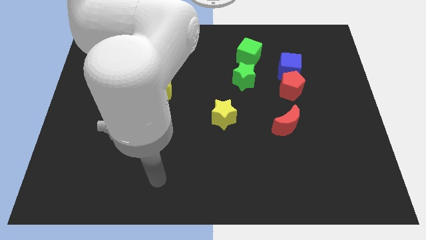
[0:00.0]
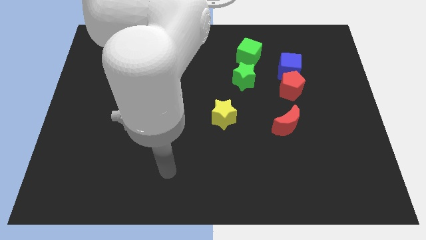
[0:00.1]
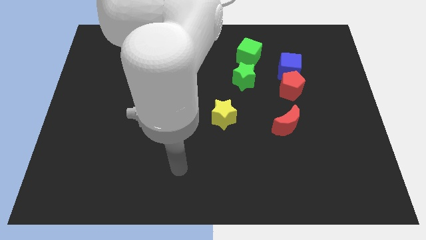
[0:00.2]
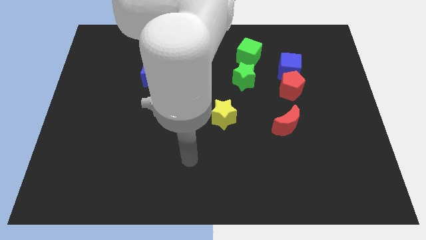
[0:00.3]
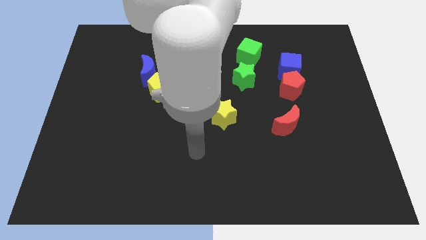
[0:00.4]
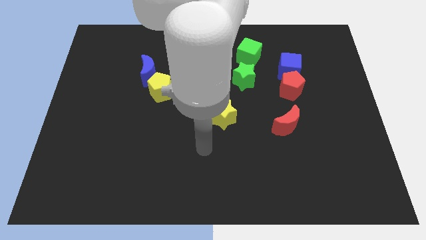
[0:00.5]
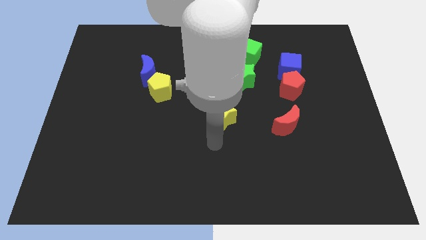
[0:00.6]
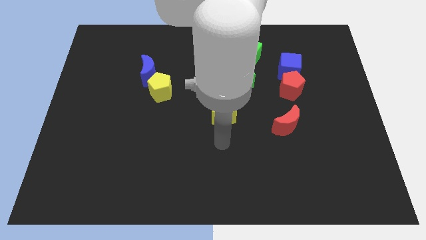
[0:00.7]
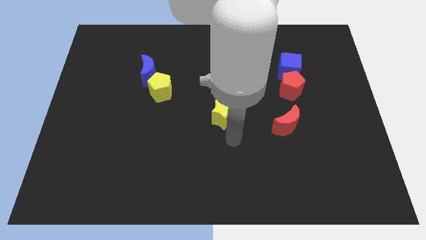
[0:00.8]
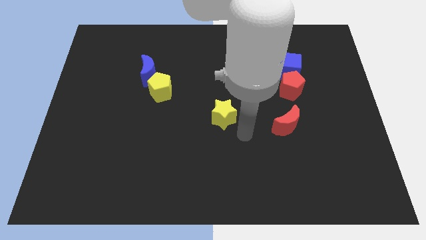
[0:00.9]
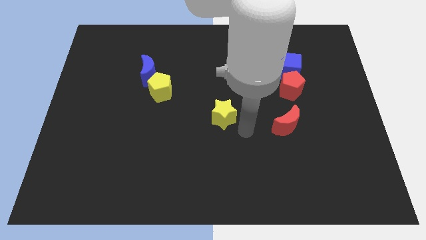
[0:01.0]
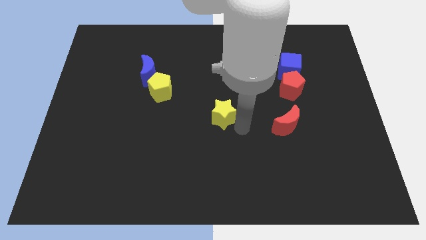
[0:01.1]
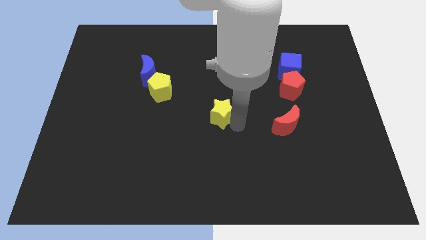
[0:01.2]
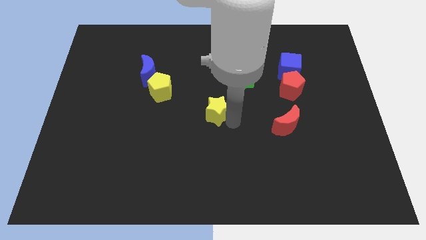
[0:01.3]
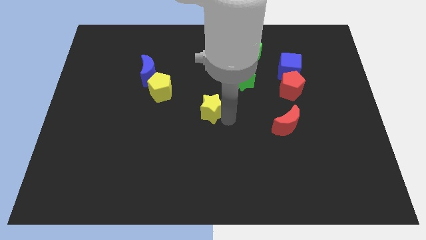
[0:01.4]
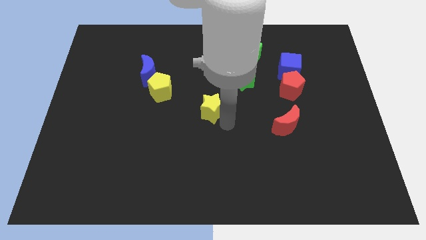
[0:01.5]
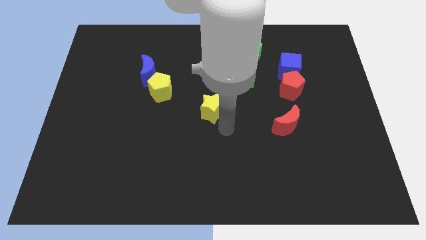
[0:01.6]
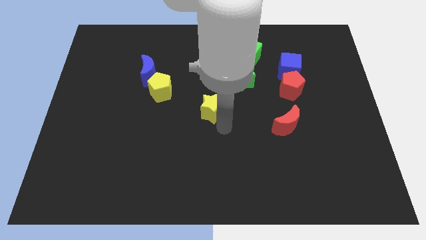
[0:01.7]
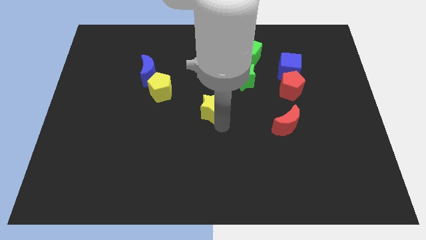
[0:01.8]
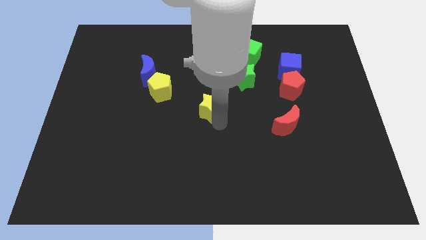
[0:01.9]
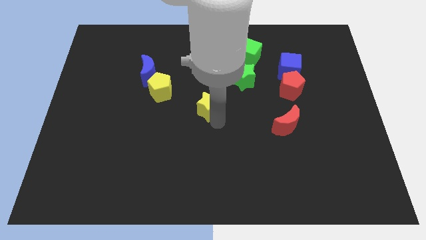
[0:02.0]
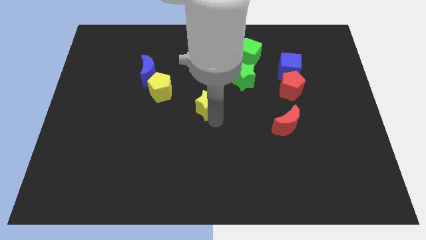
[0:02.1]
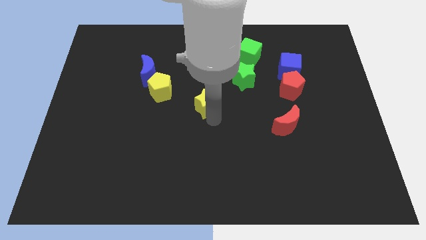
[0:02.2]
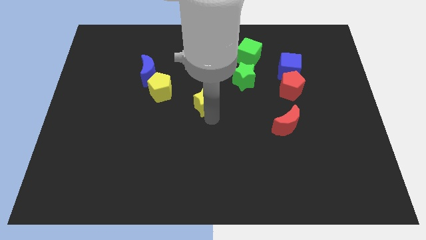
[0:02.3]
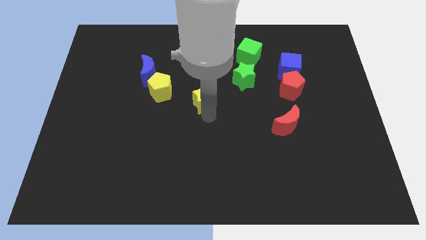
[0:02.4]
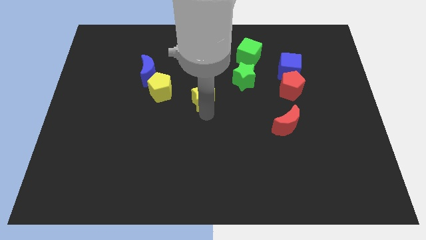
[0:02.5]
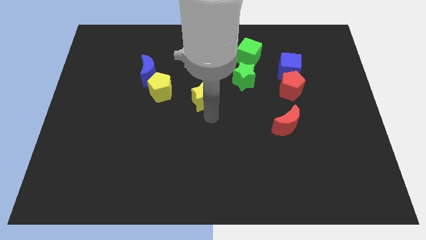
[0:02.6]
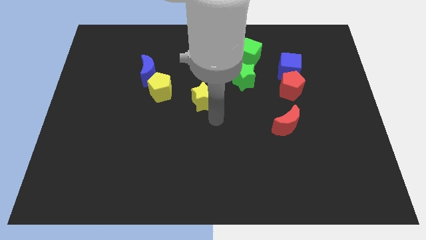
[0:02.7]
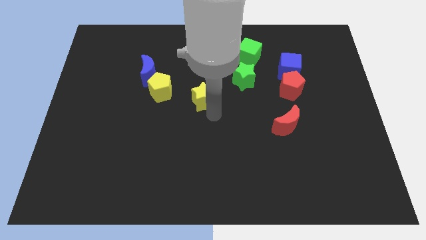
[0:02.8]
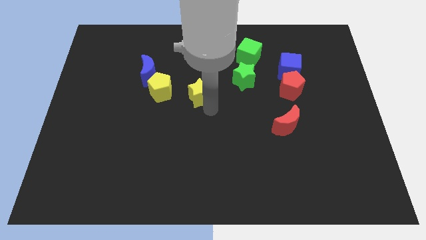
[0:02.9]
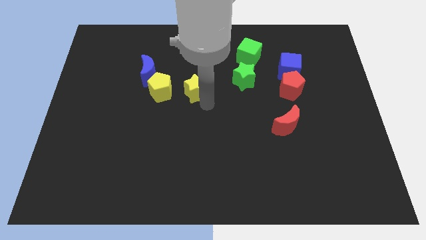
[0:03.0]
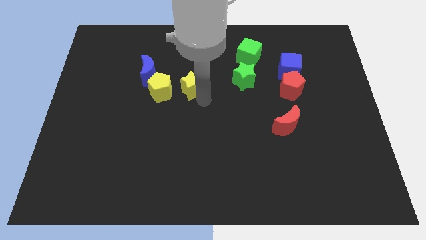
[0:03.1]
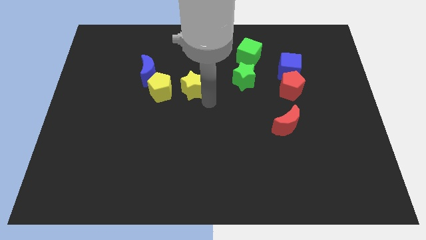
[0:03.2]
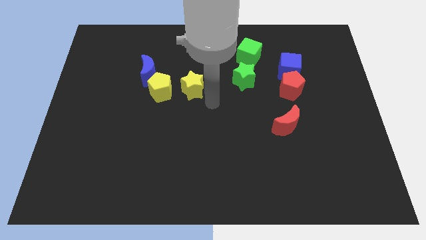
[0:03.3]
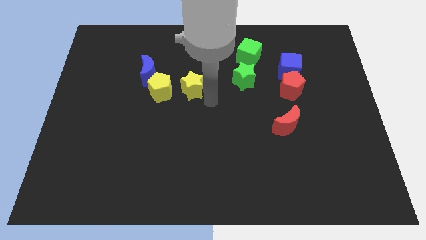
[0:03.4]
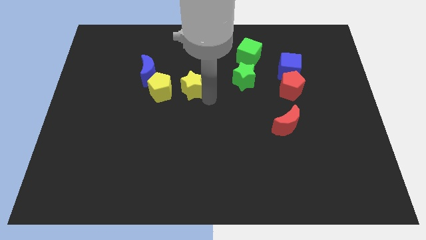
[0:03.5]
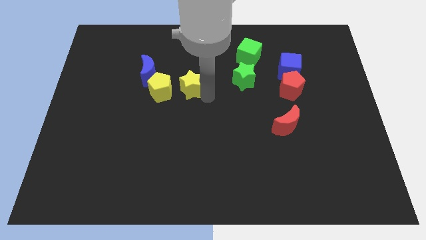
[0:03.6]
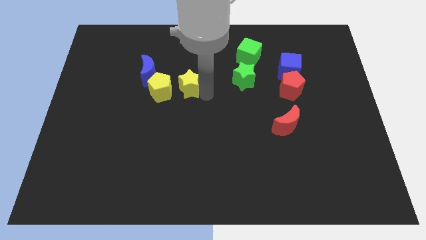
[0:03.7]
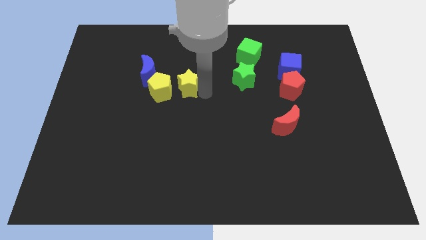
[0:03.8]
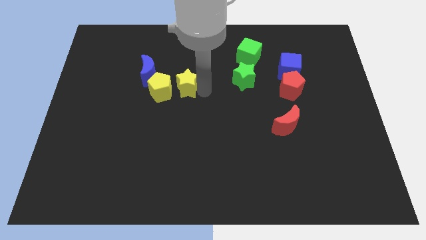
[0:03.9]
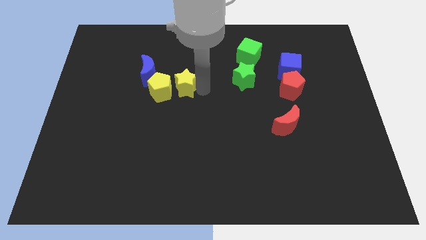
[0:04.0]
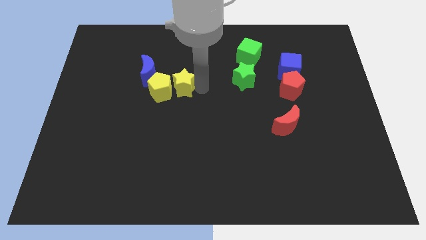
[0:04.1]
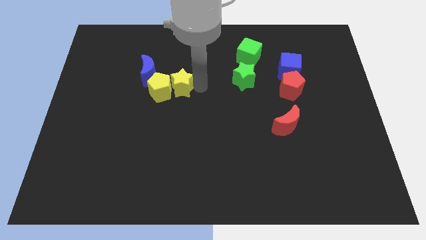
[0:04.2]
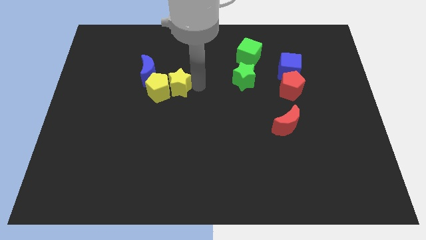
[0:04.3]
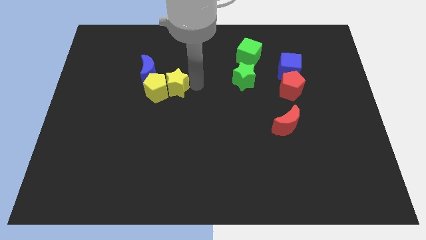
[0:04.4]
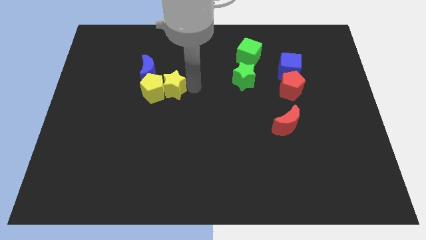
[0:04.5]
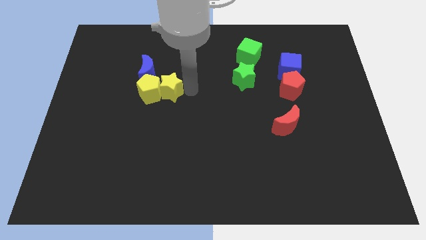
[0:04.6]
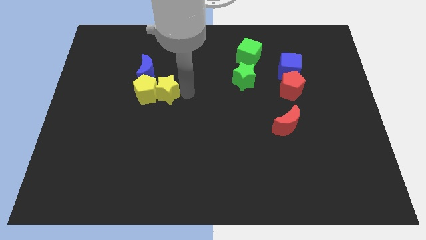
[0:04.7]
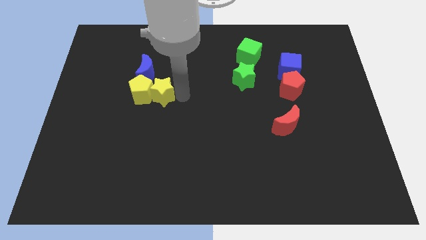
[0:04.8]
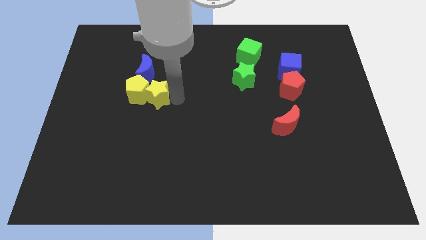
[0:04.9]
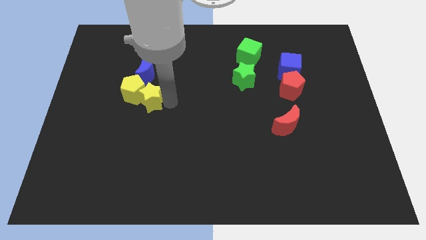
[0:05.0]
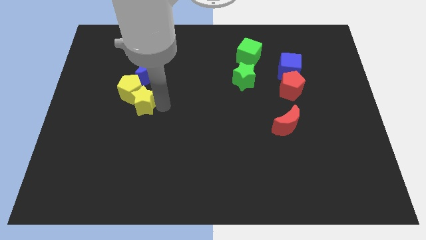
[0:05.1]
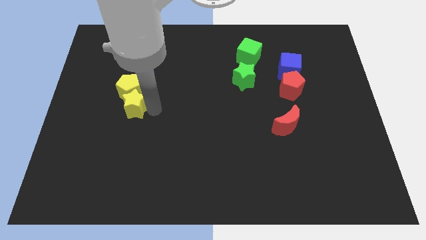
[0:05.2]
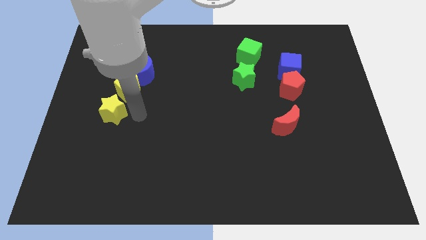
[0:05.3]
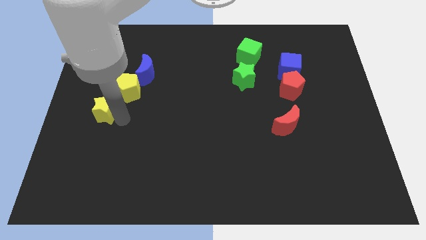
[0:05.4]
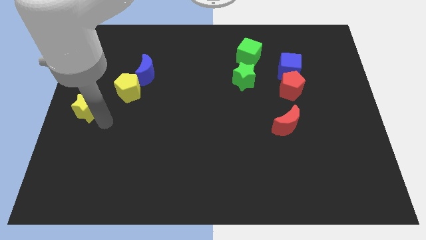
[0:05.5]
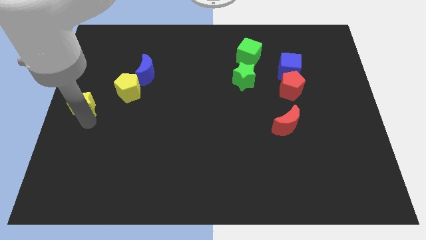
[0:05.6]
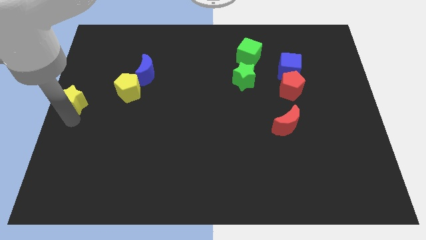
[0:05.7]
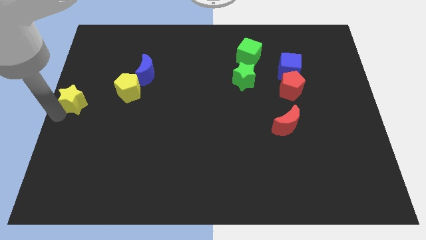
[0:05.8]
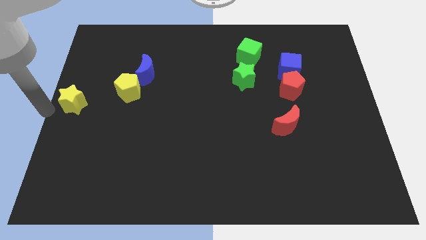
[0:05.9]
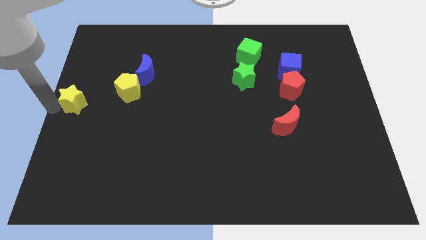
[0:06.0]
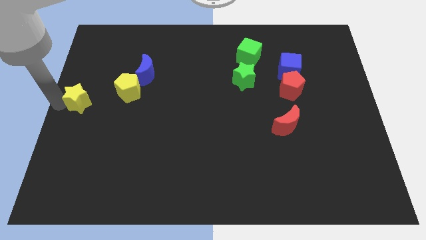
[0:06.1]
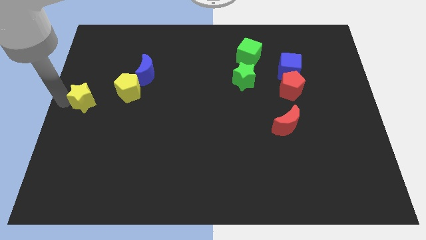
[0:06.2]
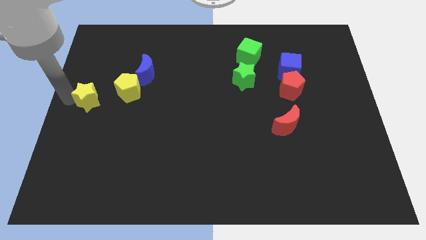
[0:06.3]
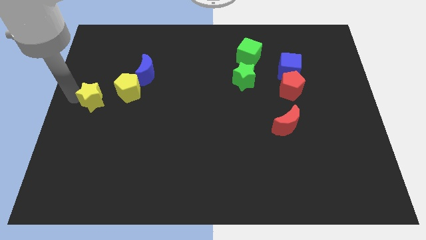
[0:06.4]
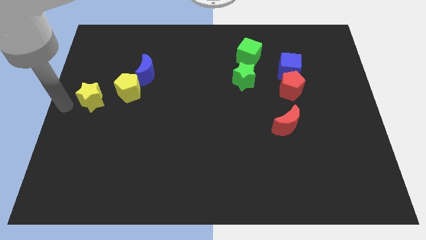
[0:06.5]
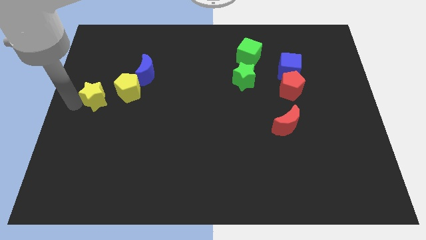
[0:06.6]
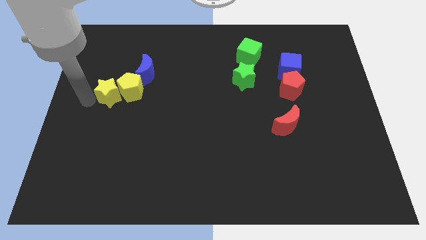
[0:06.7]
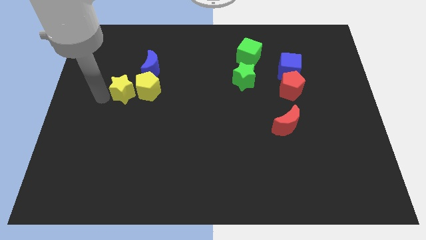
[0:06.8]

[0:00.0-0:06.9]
put the yellow star diagonally up and to the left of the yellow pentagon

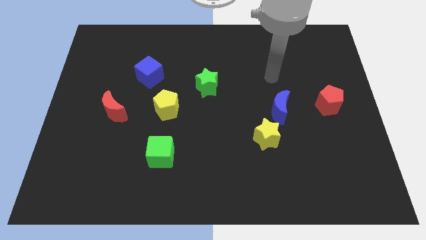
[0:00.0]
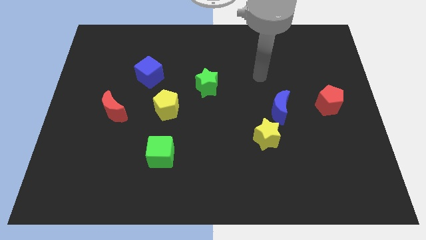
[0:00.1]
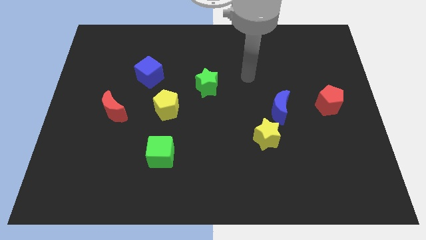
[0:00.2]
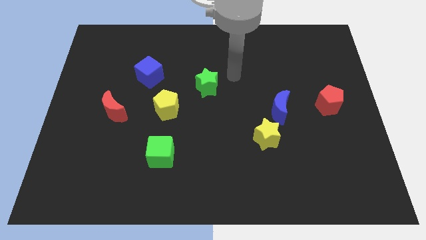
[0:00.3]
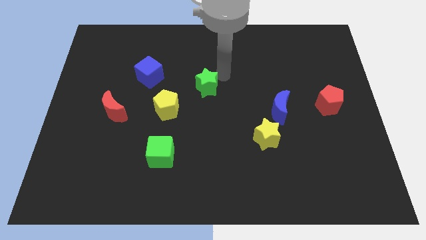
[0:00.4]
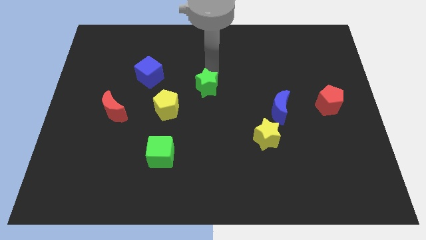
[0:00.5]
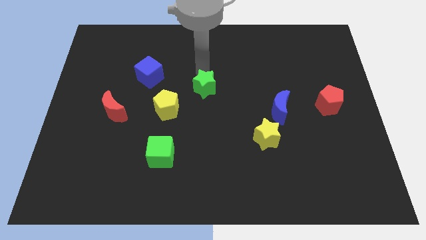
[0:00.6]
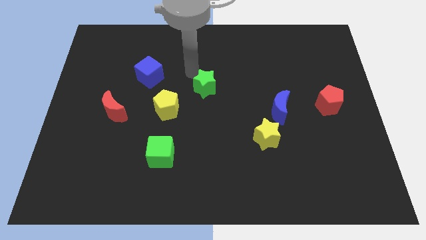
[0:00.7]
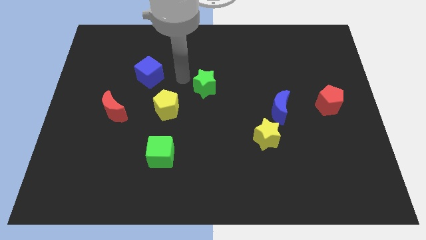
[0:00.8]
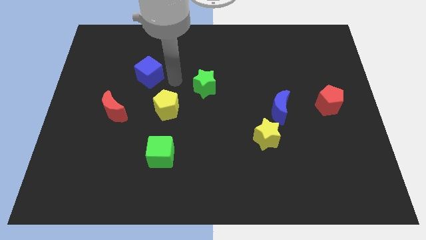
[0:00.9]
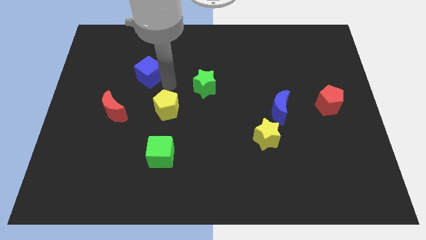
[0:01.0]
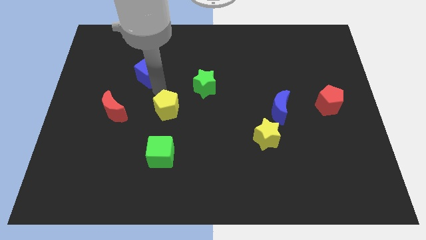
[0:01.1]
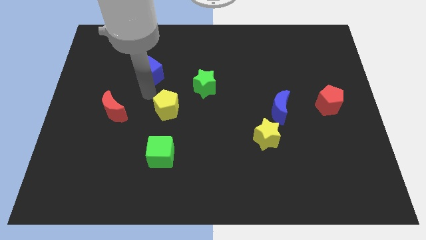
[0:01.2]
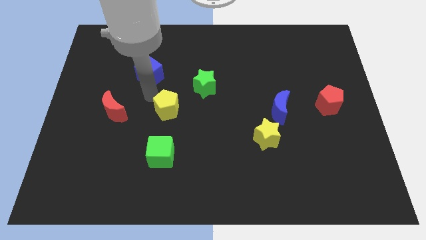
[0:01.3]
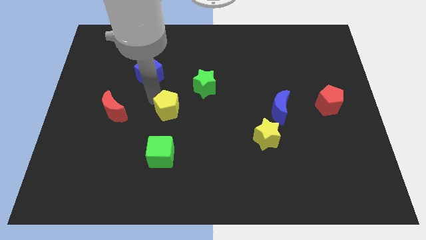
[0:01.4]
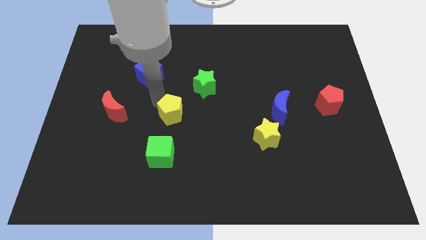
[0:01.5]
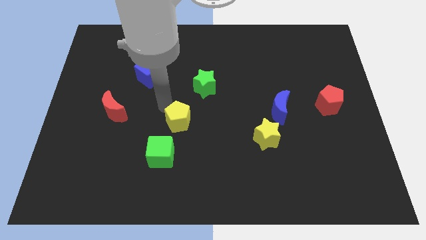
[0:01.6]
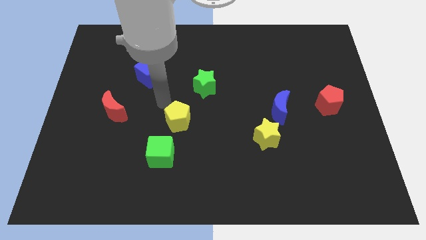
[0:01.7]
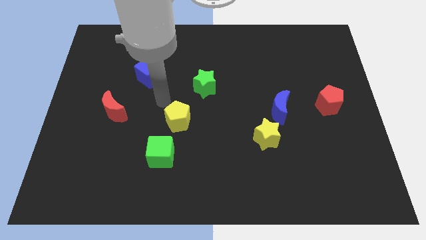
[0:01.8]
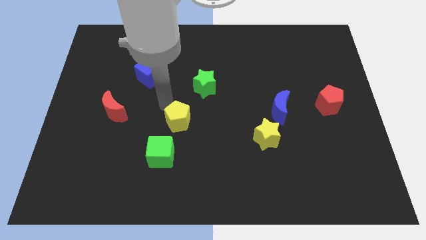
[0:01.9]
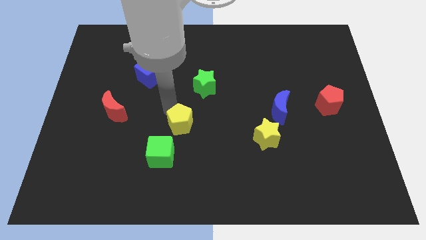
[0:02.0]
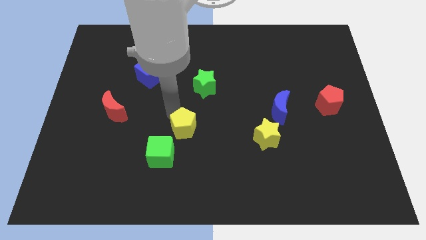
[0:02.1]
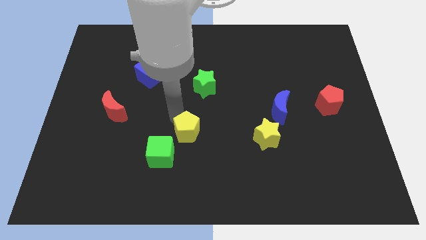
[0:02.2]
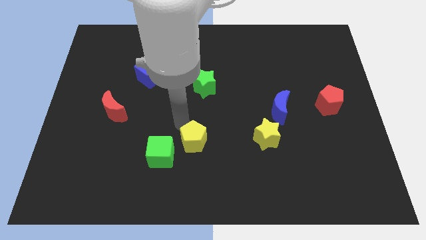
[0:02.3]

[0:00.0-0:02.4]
put the yellow pentagon just right of the green cube
